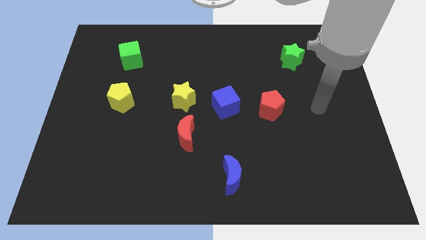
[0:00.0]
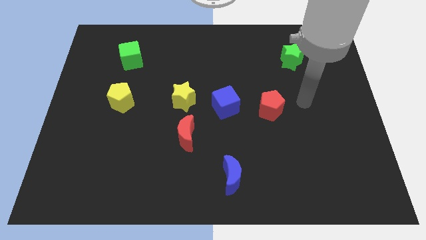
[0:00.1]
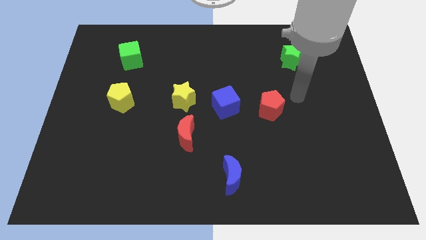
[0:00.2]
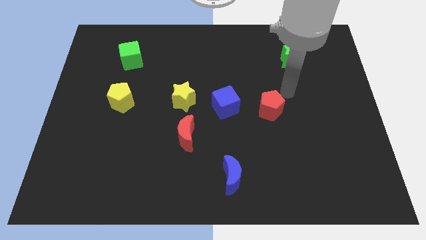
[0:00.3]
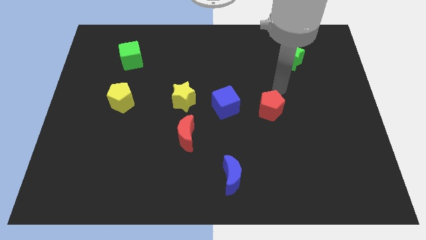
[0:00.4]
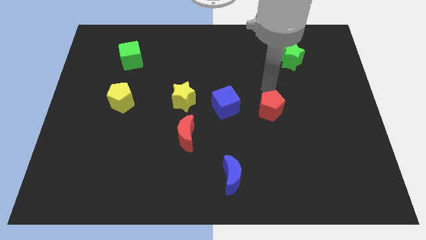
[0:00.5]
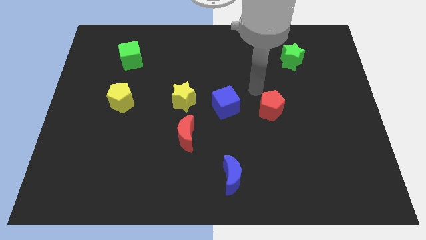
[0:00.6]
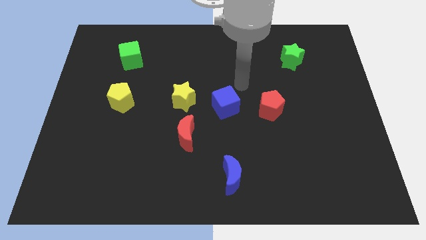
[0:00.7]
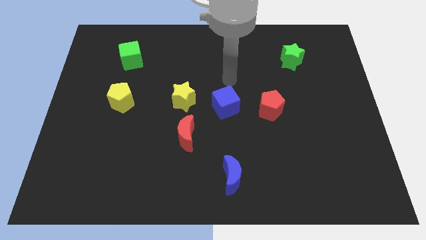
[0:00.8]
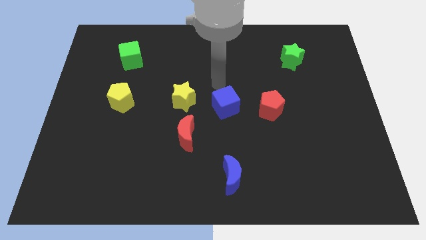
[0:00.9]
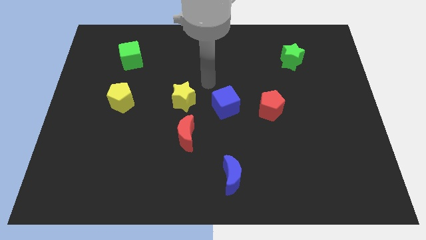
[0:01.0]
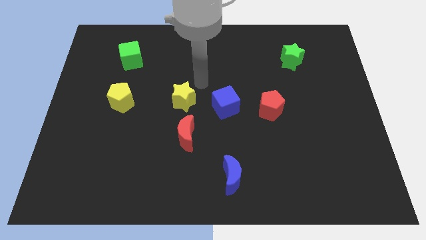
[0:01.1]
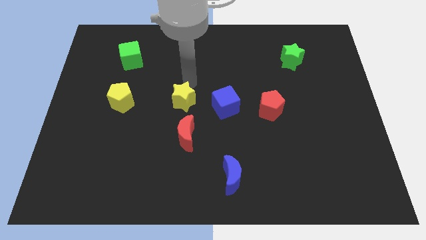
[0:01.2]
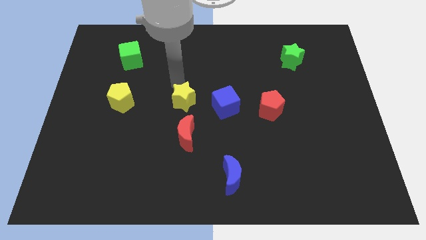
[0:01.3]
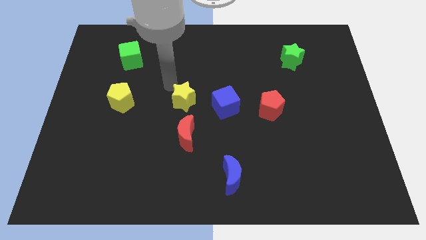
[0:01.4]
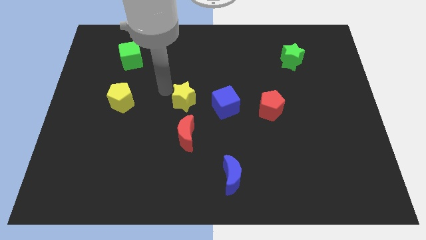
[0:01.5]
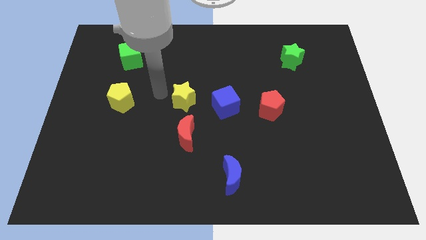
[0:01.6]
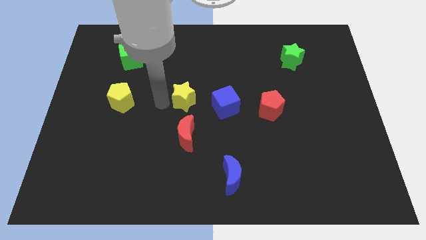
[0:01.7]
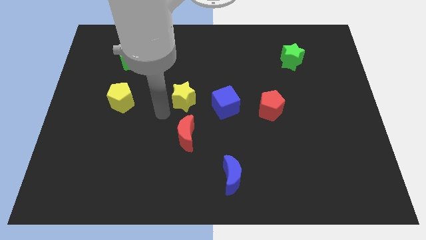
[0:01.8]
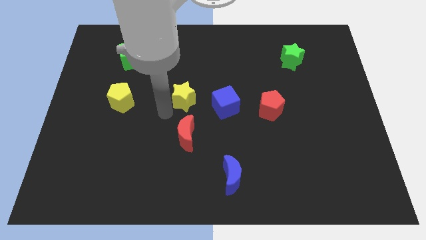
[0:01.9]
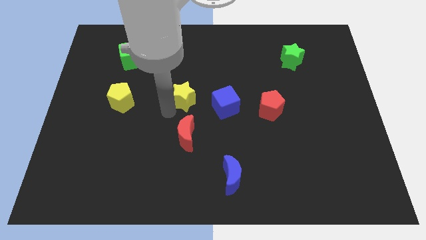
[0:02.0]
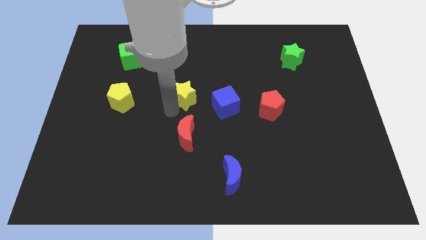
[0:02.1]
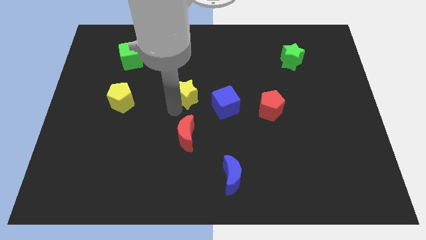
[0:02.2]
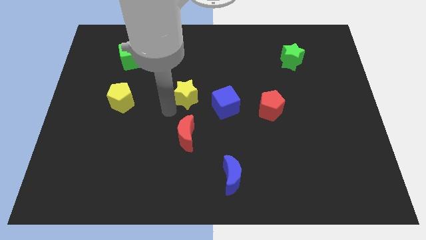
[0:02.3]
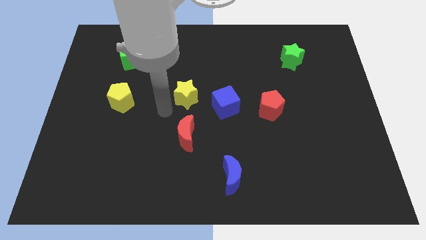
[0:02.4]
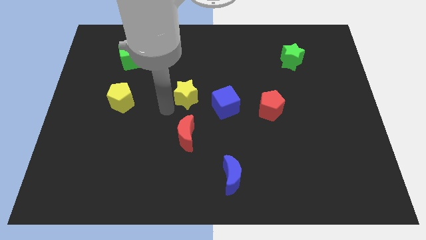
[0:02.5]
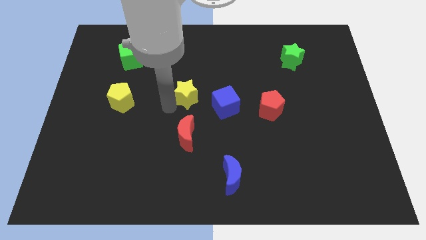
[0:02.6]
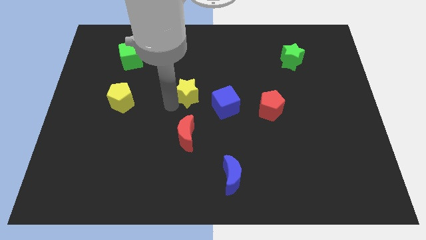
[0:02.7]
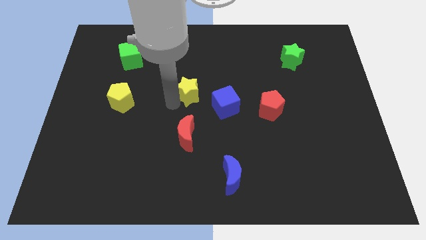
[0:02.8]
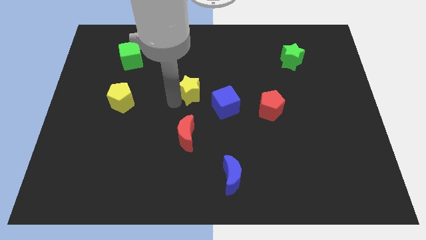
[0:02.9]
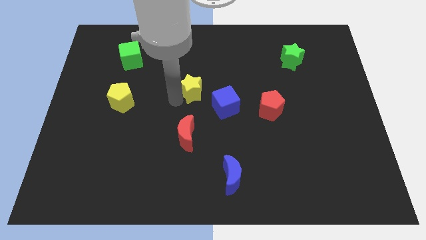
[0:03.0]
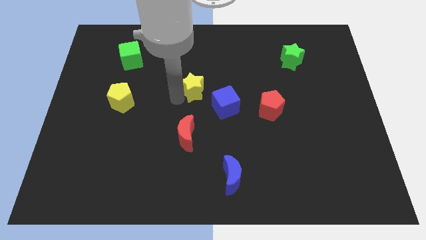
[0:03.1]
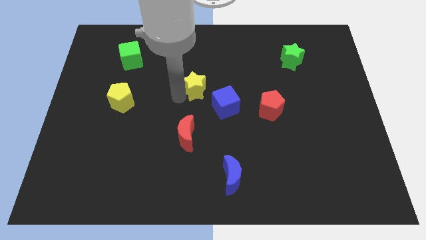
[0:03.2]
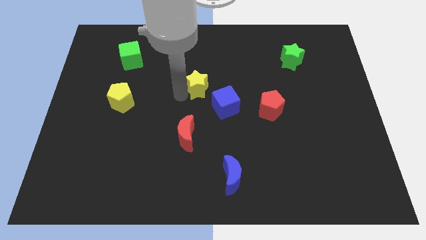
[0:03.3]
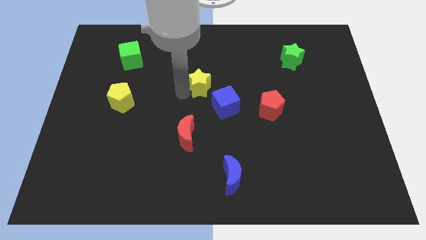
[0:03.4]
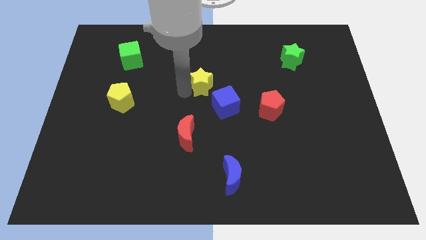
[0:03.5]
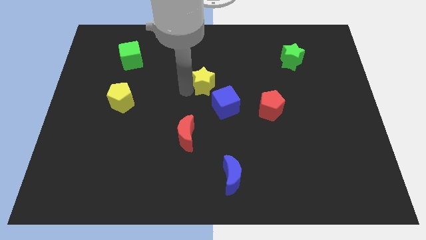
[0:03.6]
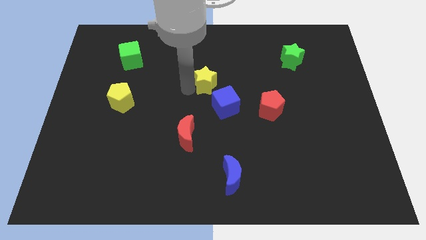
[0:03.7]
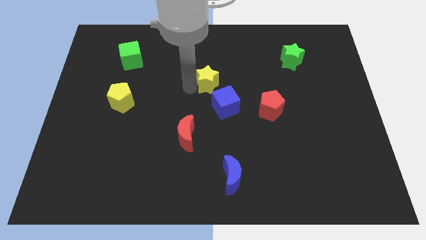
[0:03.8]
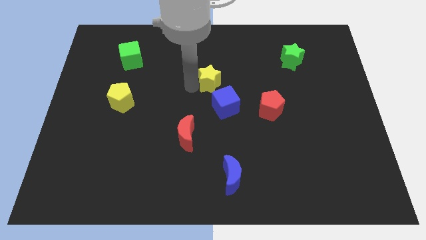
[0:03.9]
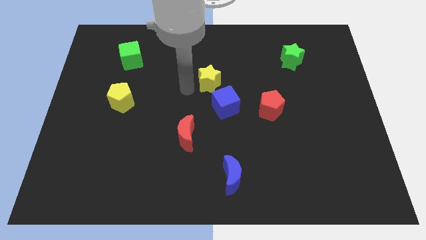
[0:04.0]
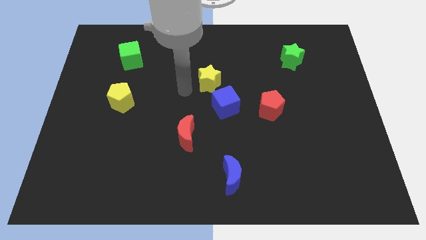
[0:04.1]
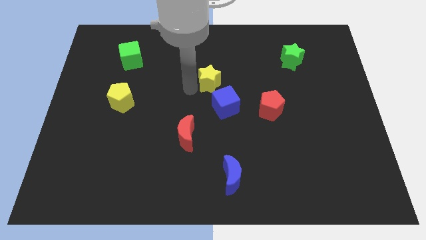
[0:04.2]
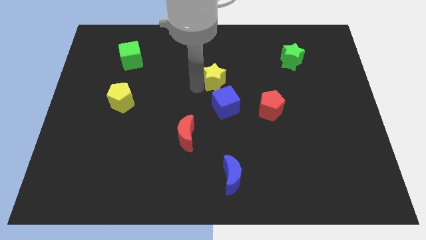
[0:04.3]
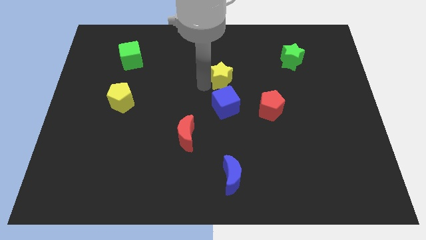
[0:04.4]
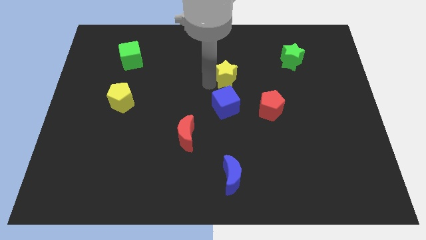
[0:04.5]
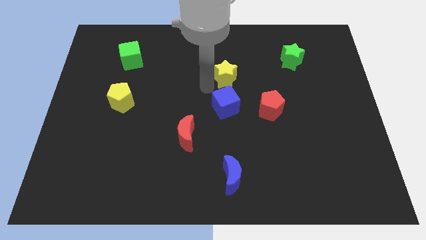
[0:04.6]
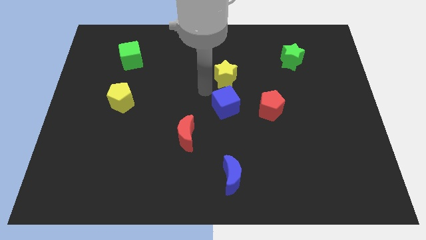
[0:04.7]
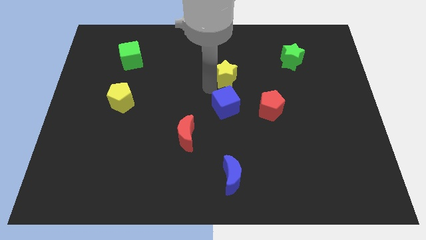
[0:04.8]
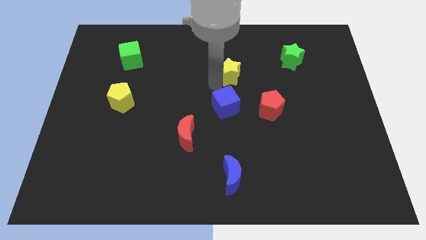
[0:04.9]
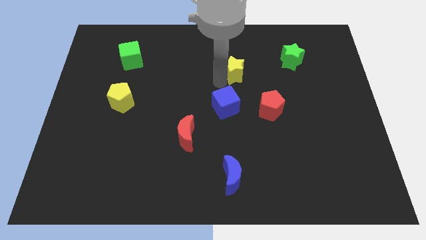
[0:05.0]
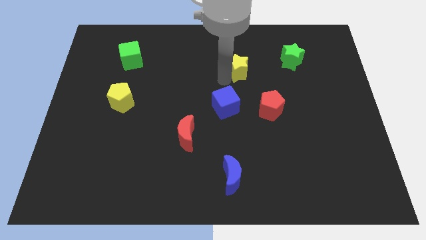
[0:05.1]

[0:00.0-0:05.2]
put the yellow star left of the green star

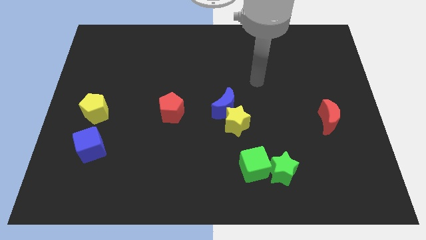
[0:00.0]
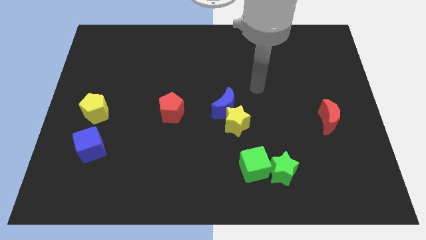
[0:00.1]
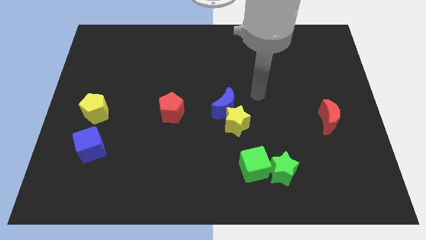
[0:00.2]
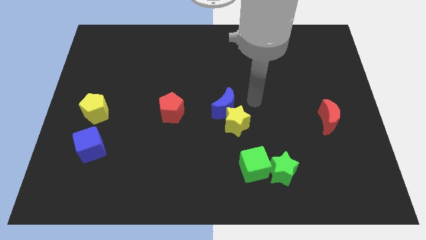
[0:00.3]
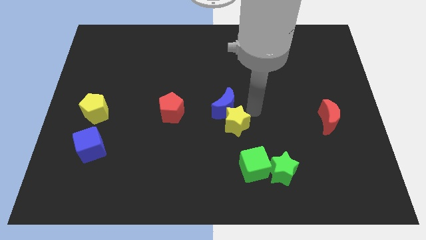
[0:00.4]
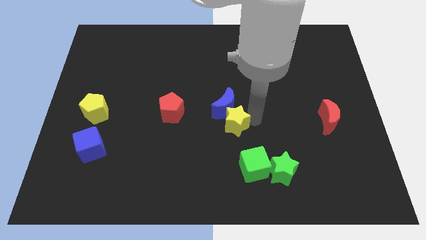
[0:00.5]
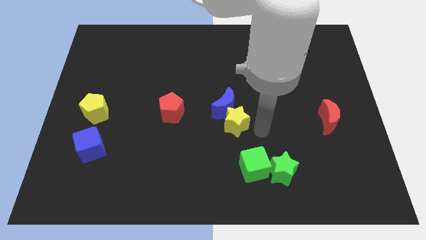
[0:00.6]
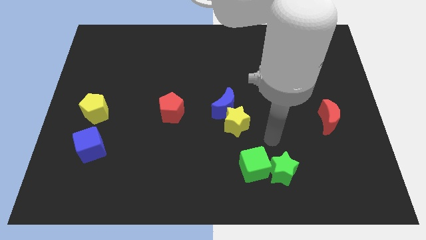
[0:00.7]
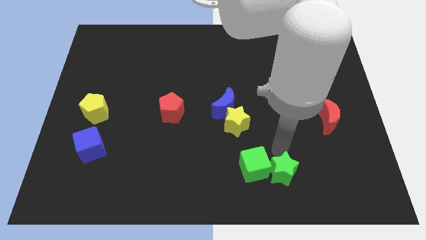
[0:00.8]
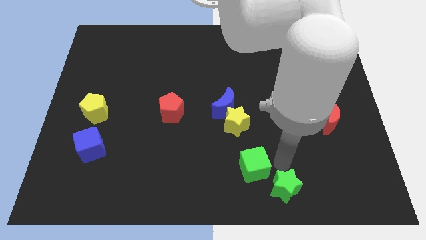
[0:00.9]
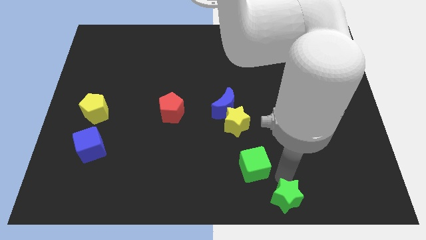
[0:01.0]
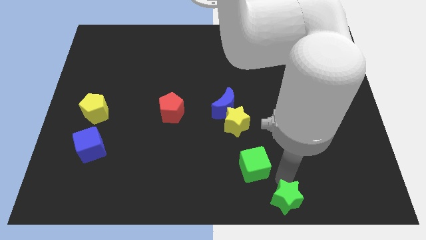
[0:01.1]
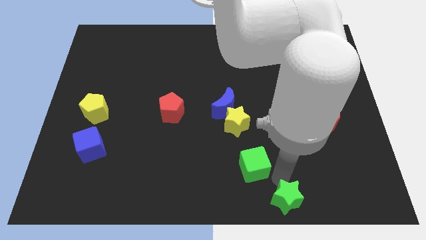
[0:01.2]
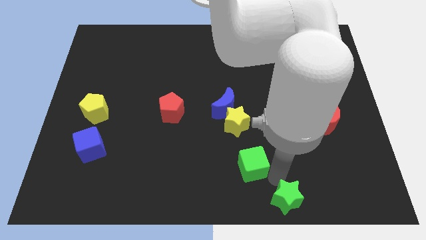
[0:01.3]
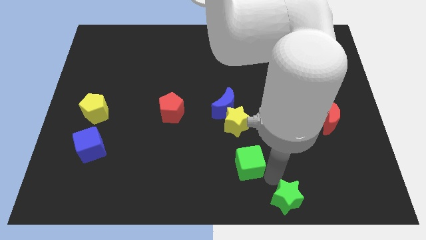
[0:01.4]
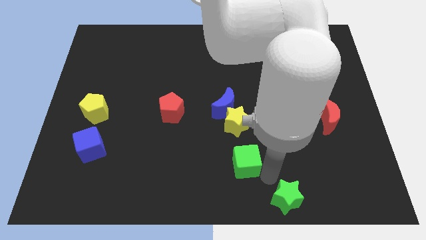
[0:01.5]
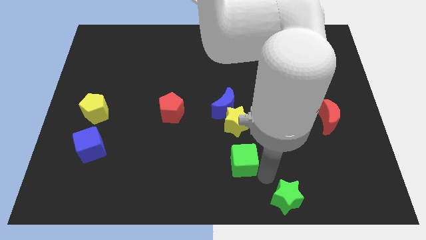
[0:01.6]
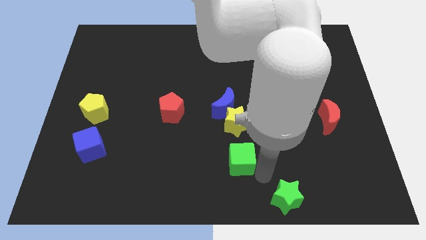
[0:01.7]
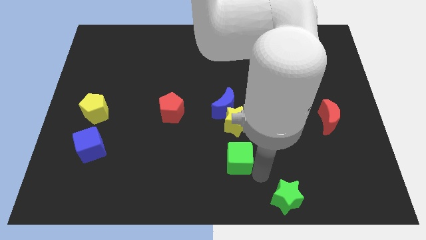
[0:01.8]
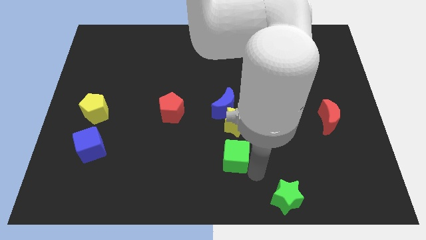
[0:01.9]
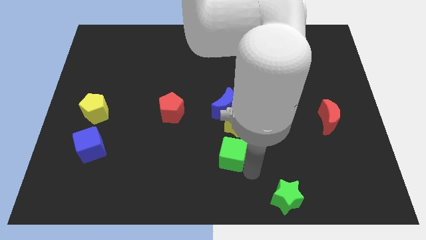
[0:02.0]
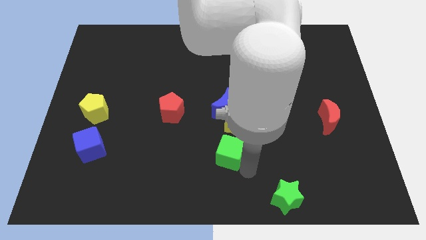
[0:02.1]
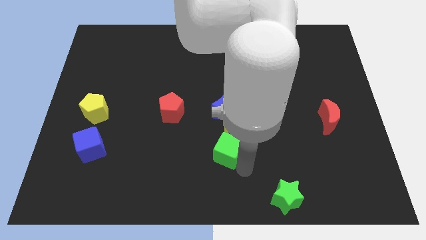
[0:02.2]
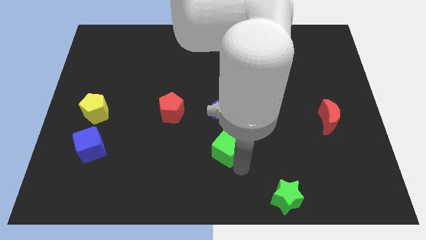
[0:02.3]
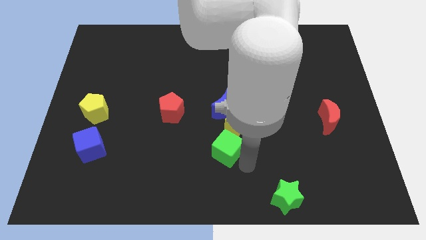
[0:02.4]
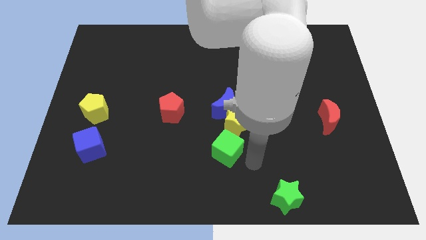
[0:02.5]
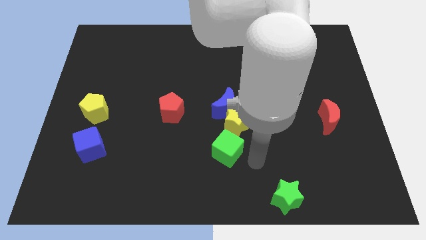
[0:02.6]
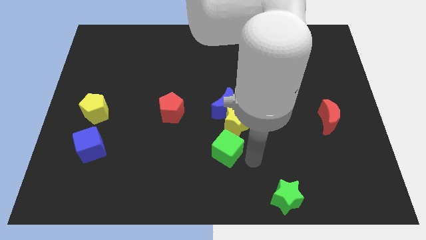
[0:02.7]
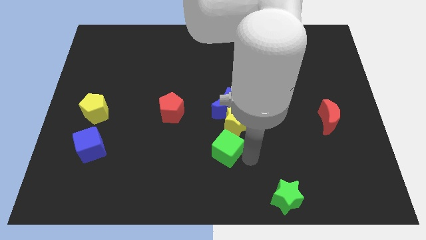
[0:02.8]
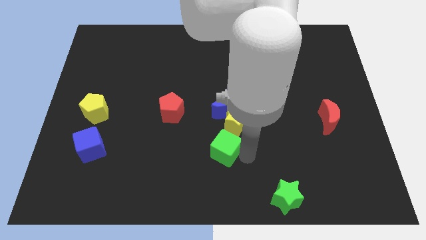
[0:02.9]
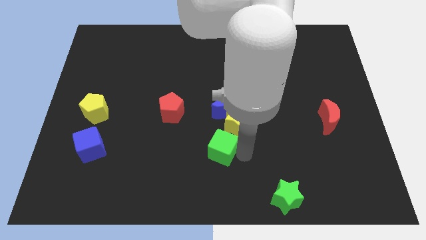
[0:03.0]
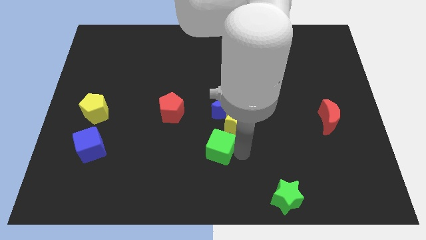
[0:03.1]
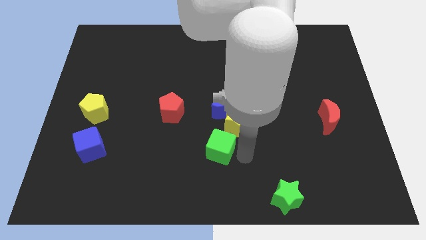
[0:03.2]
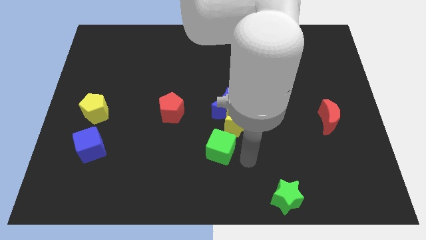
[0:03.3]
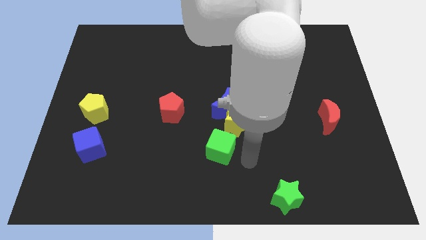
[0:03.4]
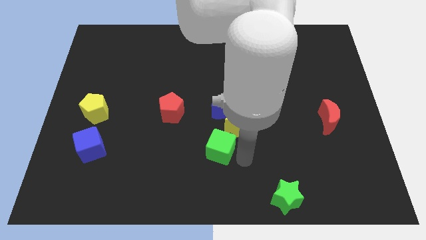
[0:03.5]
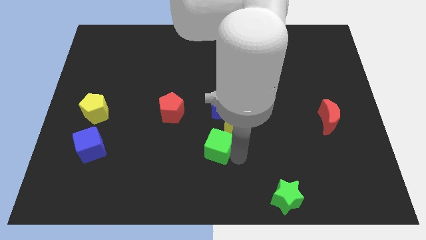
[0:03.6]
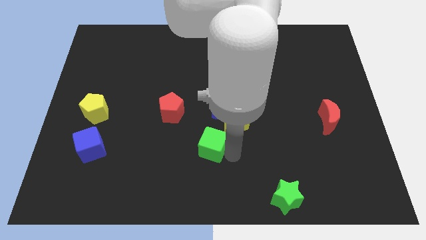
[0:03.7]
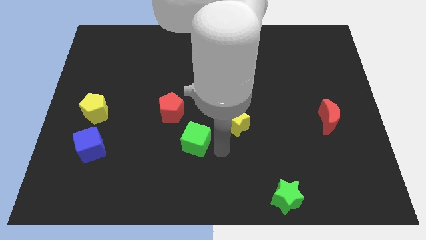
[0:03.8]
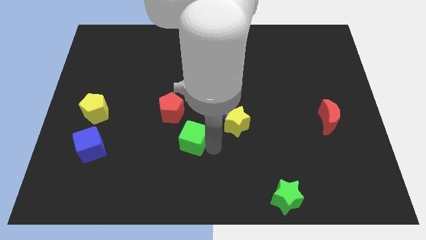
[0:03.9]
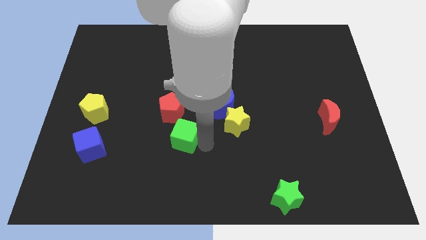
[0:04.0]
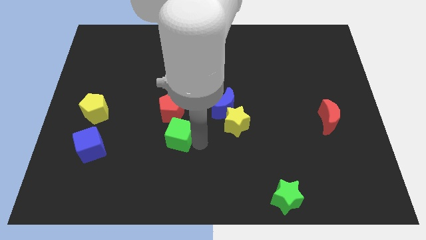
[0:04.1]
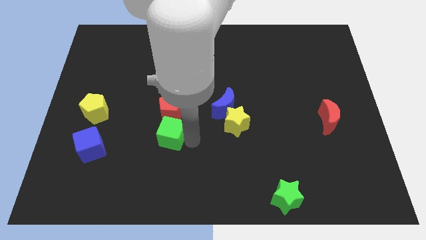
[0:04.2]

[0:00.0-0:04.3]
move the green cube to the bottom left side of the red pentagon
